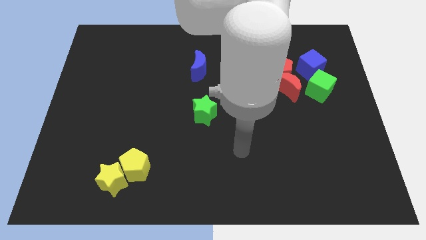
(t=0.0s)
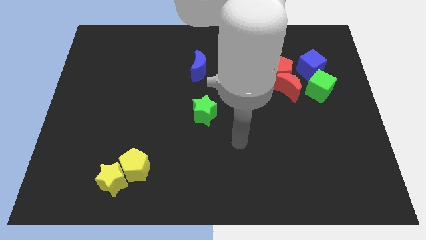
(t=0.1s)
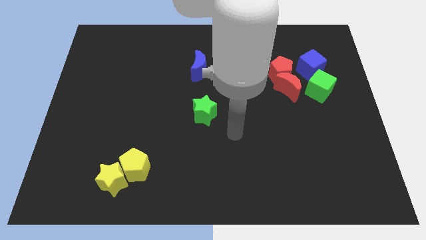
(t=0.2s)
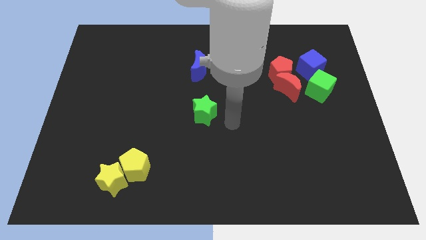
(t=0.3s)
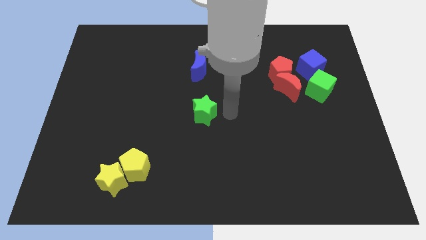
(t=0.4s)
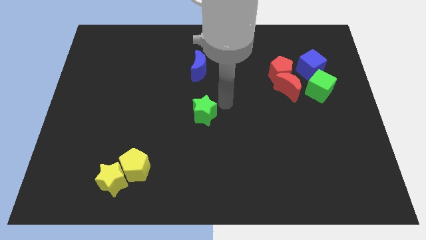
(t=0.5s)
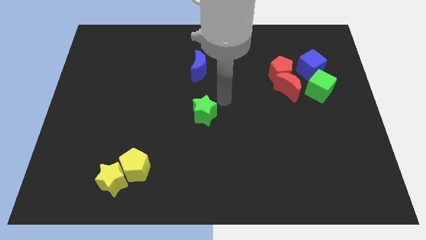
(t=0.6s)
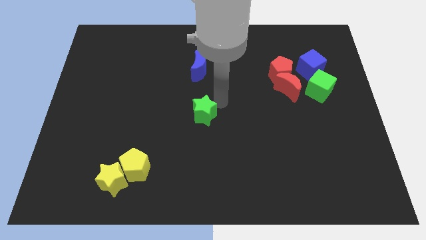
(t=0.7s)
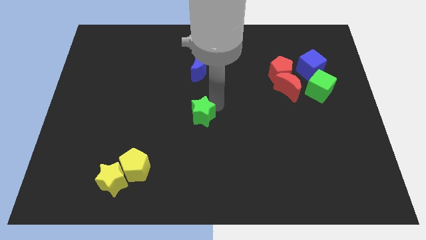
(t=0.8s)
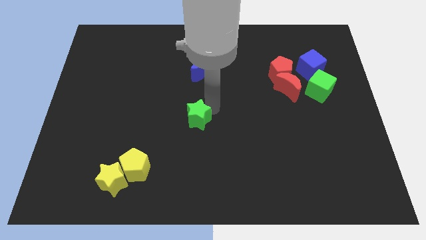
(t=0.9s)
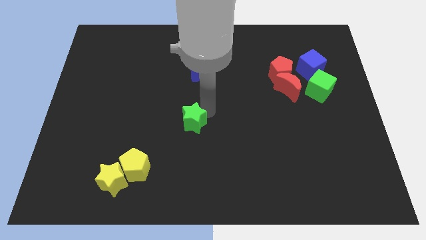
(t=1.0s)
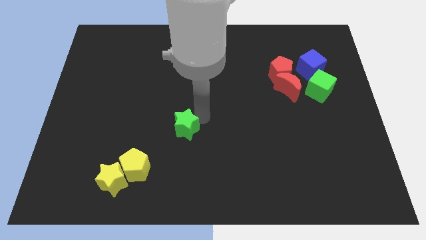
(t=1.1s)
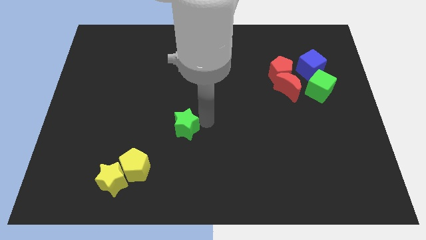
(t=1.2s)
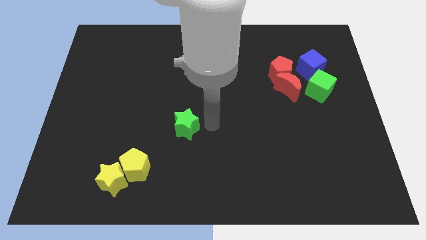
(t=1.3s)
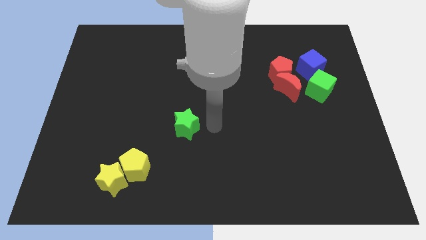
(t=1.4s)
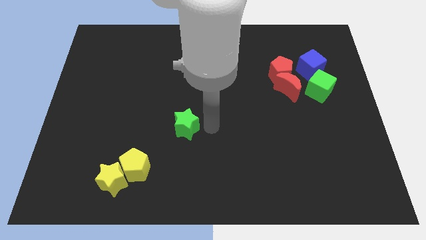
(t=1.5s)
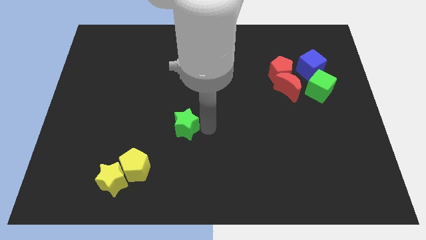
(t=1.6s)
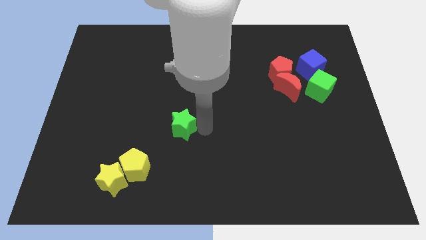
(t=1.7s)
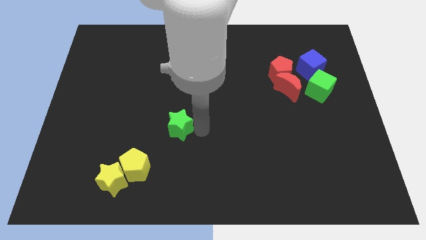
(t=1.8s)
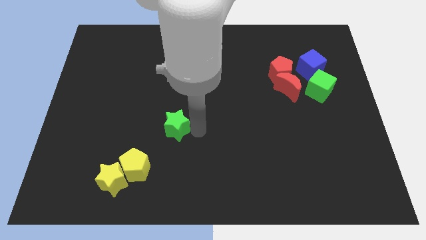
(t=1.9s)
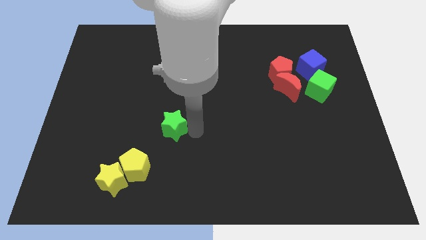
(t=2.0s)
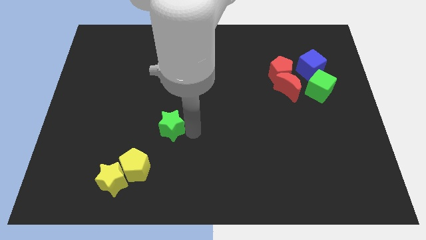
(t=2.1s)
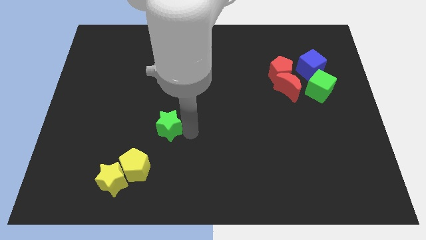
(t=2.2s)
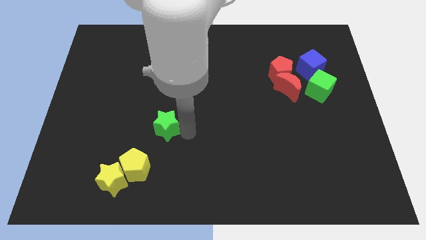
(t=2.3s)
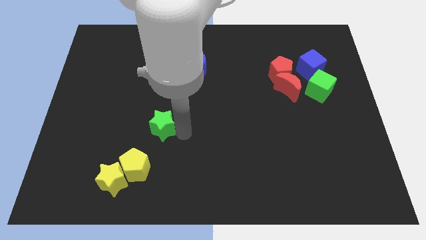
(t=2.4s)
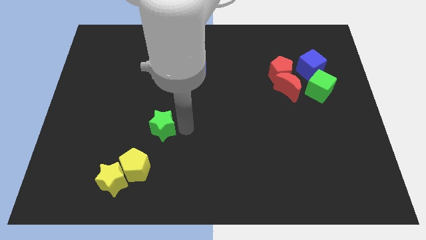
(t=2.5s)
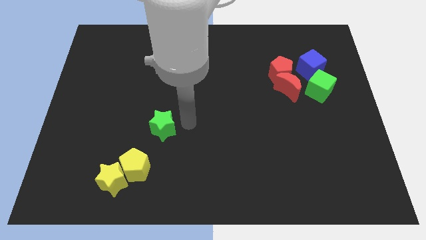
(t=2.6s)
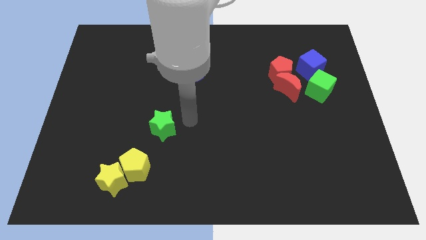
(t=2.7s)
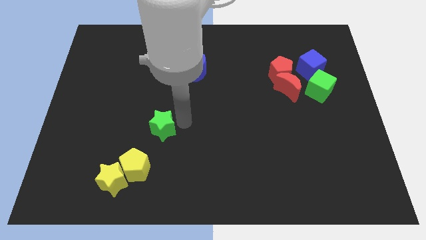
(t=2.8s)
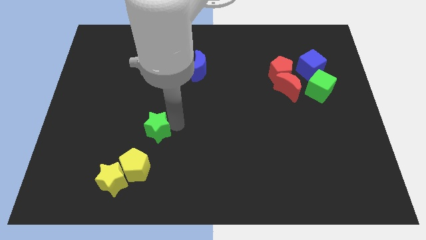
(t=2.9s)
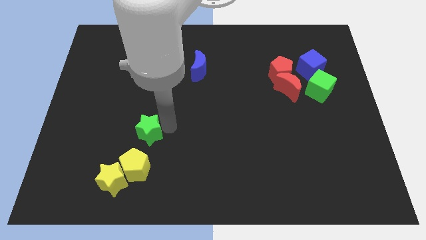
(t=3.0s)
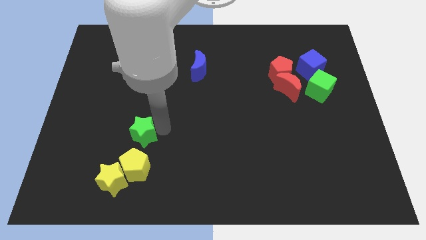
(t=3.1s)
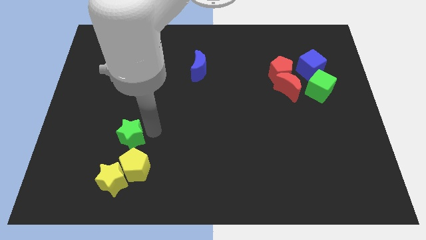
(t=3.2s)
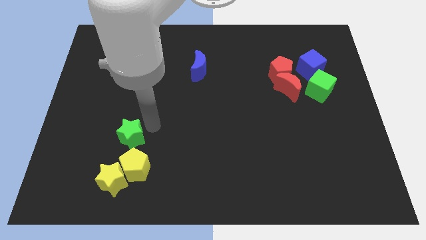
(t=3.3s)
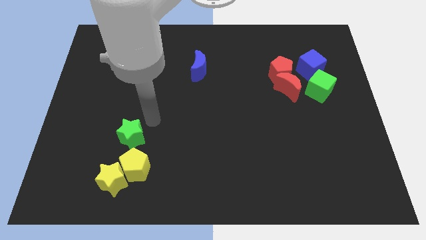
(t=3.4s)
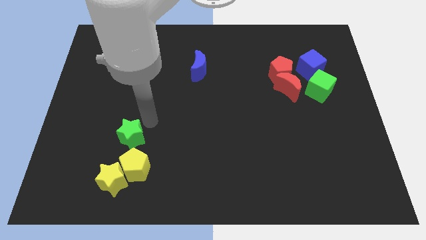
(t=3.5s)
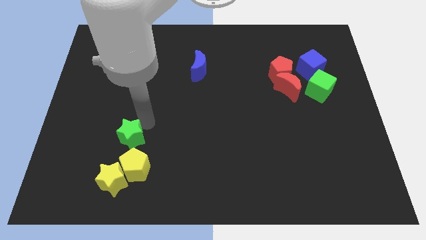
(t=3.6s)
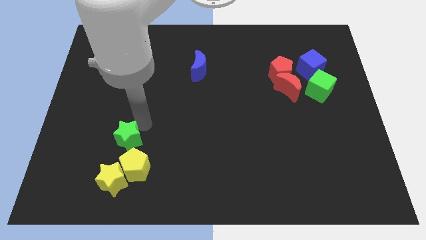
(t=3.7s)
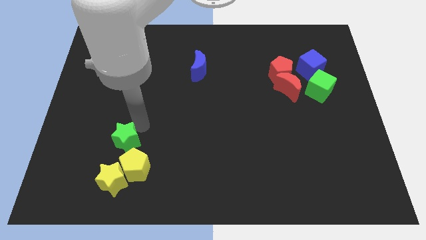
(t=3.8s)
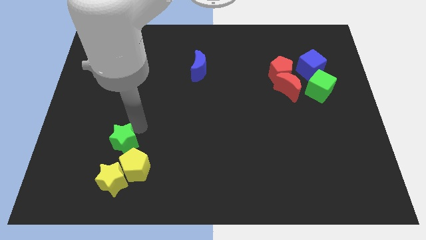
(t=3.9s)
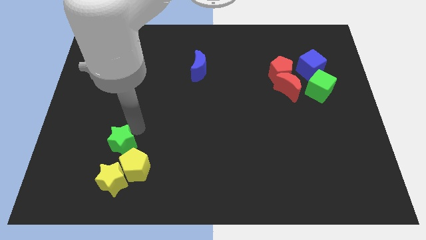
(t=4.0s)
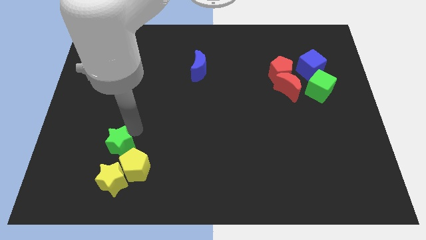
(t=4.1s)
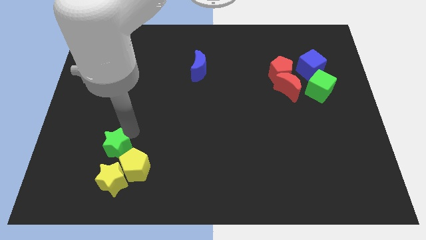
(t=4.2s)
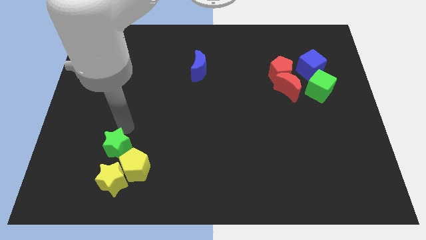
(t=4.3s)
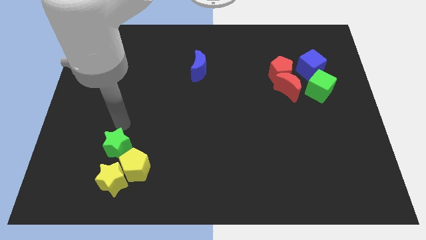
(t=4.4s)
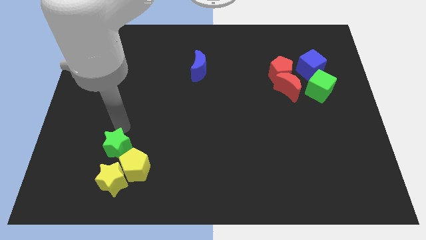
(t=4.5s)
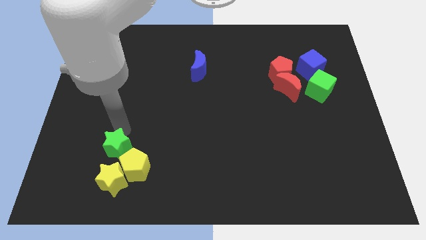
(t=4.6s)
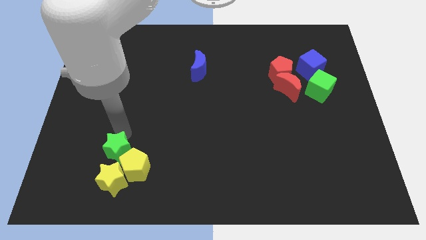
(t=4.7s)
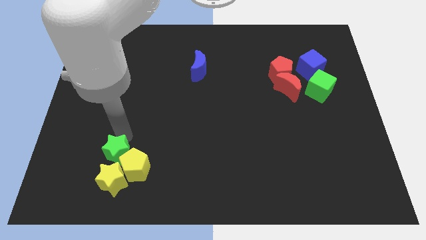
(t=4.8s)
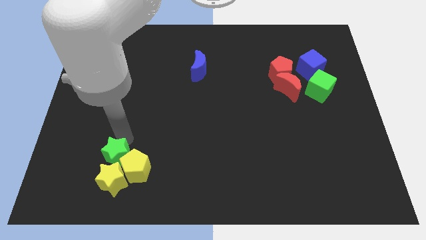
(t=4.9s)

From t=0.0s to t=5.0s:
slide the green star towards the yellow star

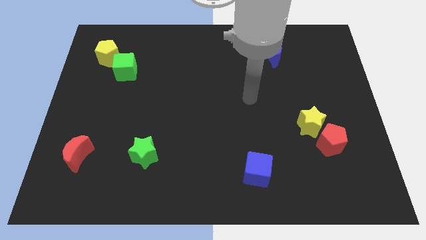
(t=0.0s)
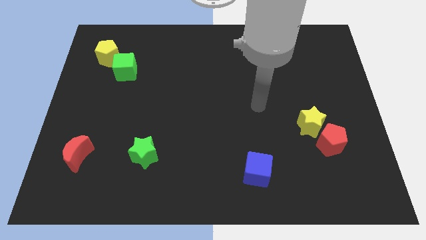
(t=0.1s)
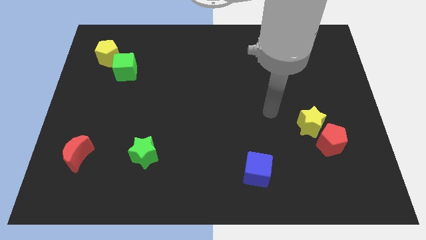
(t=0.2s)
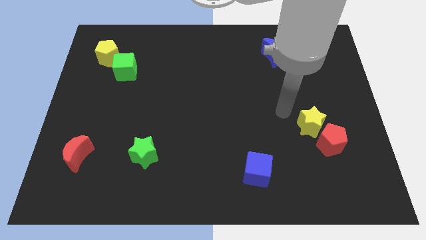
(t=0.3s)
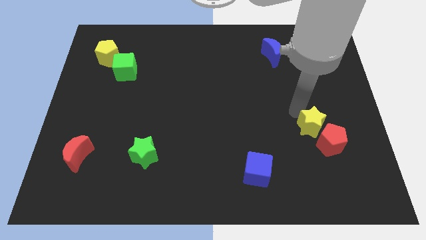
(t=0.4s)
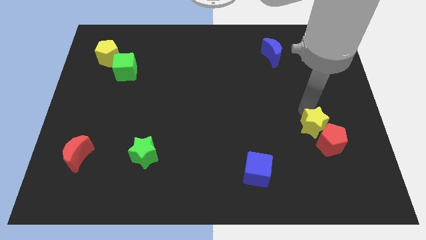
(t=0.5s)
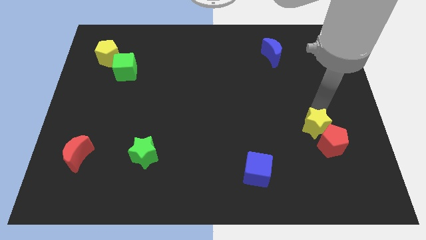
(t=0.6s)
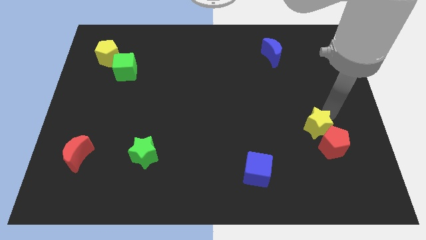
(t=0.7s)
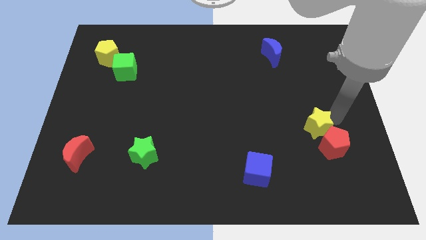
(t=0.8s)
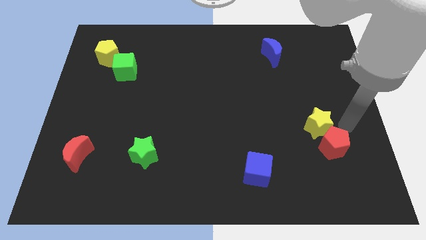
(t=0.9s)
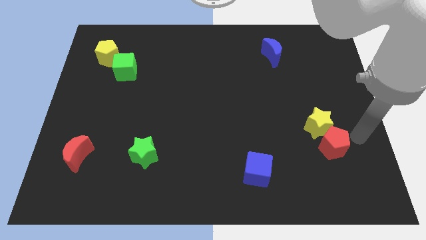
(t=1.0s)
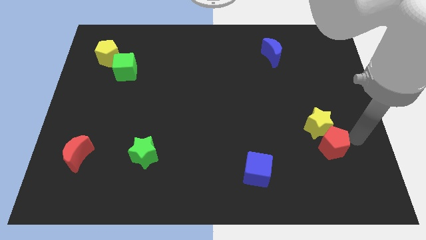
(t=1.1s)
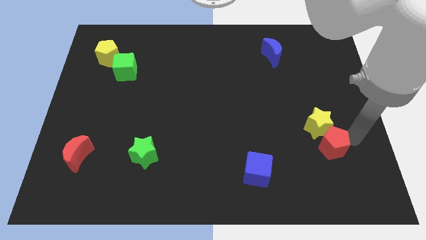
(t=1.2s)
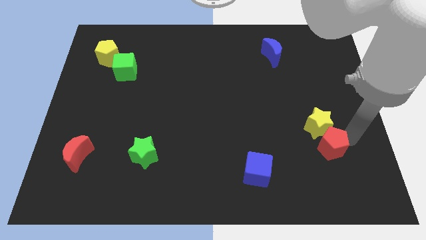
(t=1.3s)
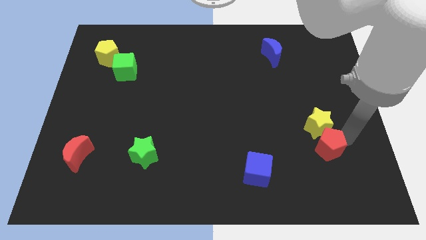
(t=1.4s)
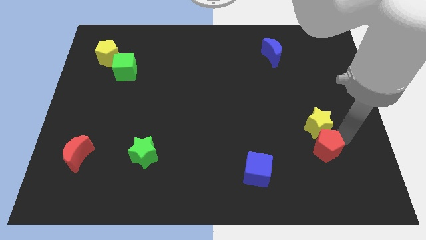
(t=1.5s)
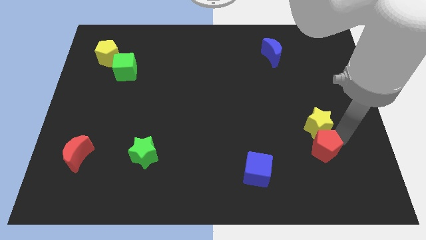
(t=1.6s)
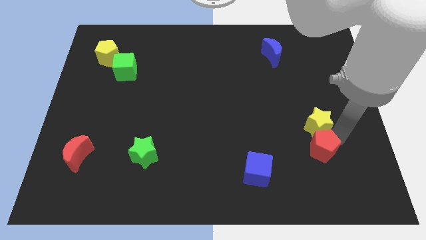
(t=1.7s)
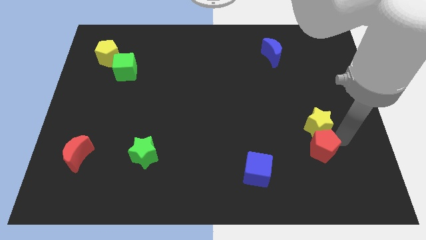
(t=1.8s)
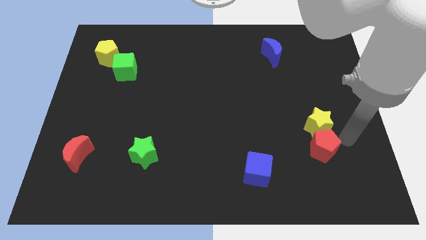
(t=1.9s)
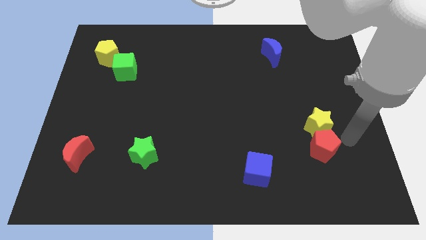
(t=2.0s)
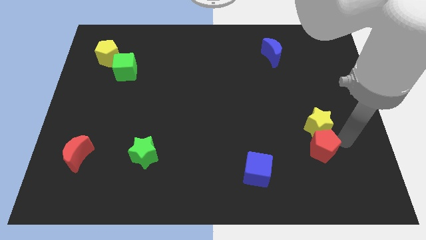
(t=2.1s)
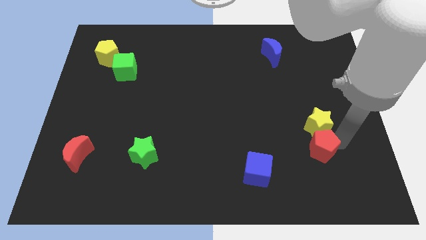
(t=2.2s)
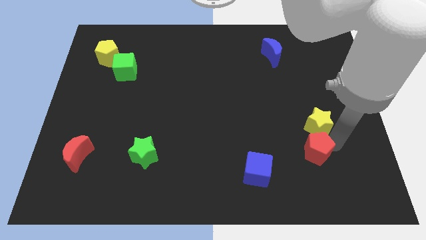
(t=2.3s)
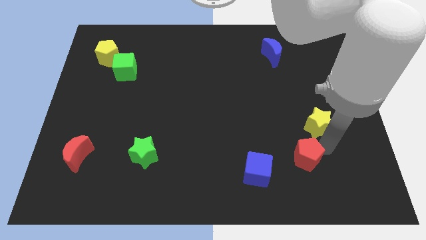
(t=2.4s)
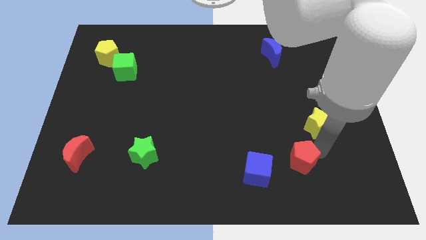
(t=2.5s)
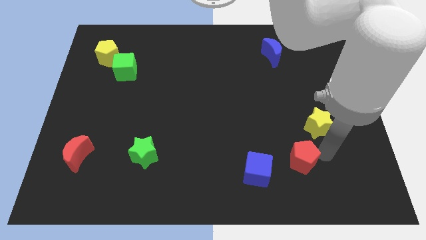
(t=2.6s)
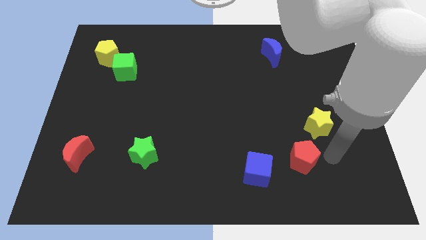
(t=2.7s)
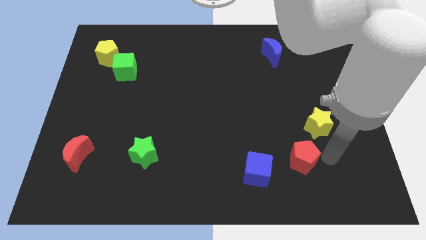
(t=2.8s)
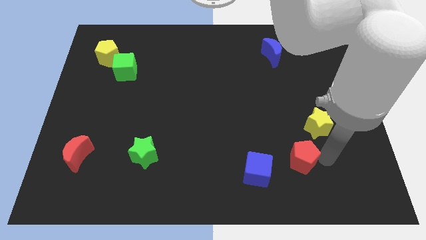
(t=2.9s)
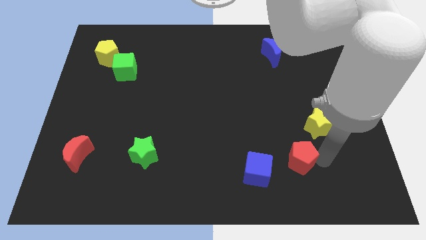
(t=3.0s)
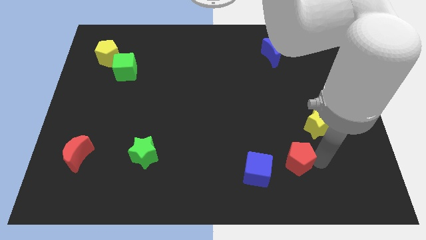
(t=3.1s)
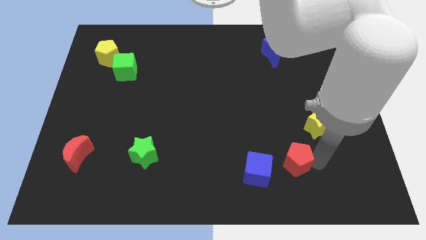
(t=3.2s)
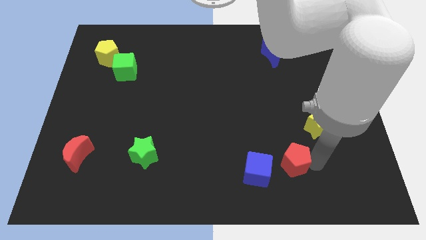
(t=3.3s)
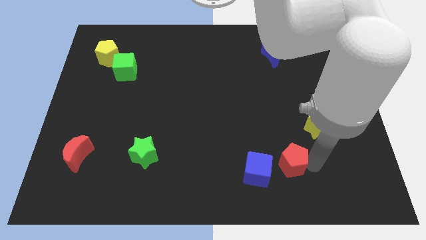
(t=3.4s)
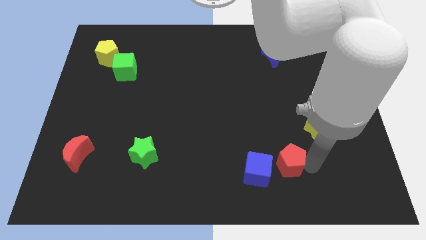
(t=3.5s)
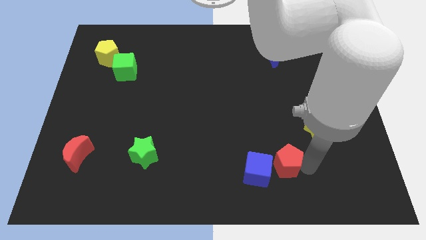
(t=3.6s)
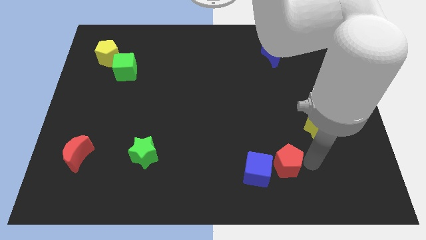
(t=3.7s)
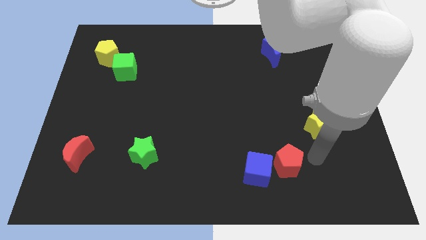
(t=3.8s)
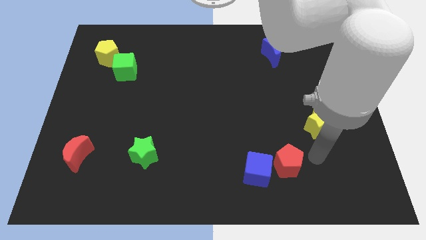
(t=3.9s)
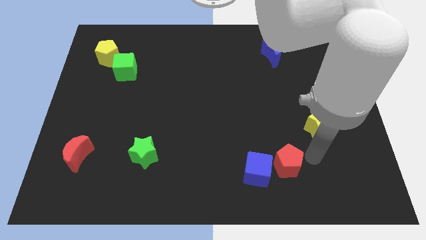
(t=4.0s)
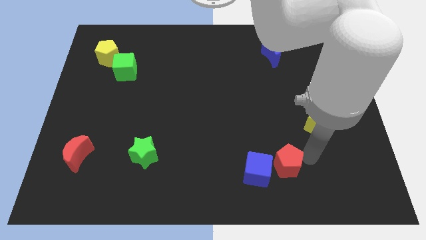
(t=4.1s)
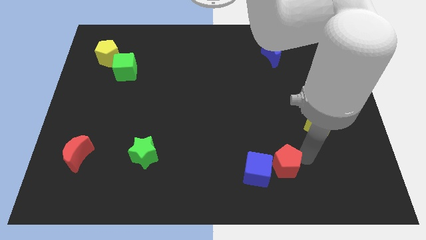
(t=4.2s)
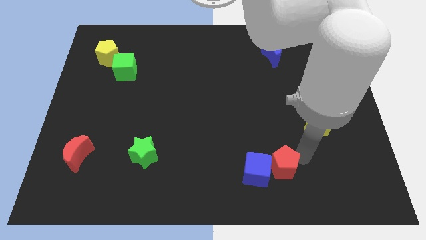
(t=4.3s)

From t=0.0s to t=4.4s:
put the red pentagon close to the blue cube
